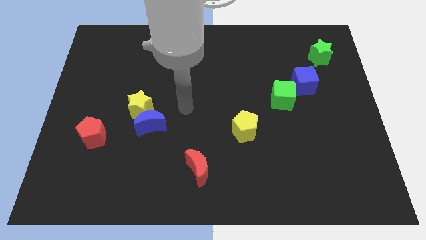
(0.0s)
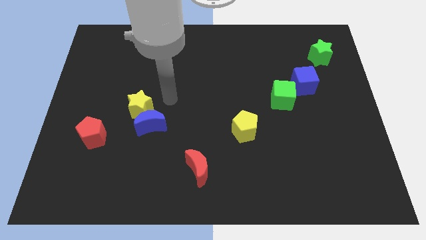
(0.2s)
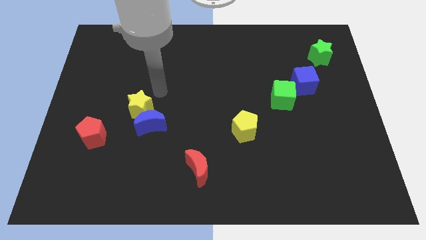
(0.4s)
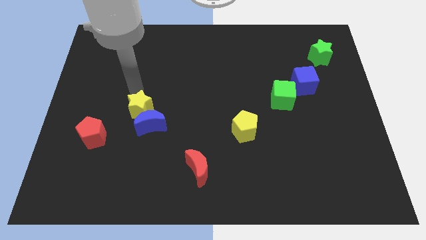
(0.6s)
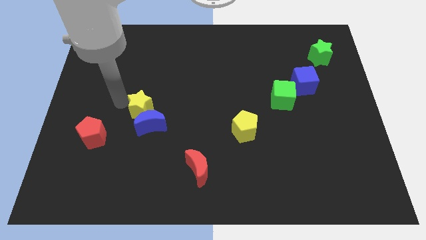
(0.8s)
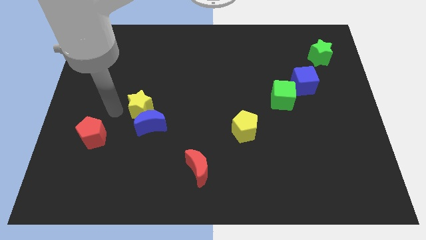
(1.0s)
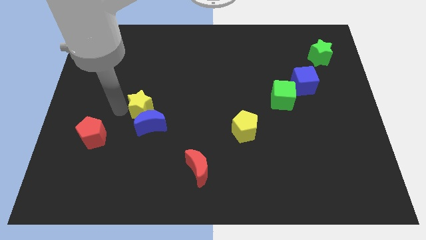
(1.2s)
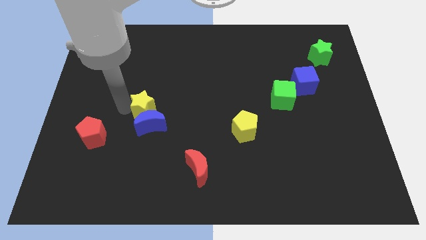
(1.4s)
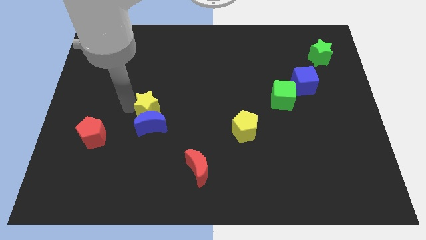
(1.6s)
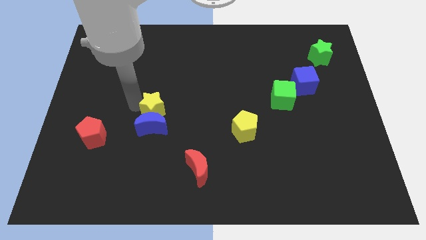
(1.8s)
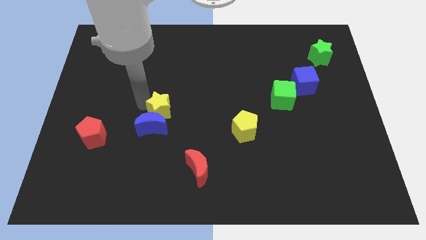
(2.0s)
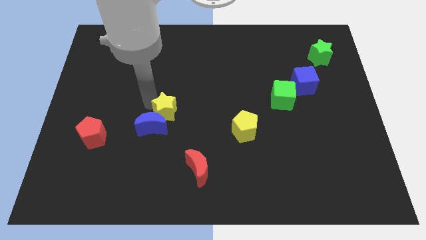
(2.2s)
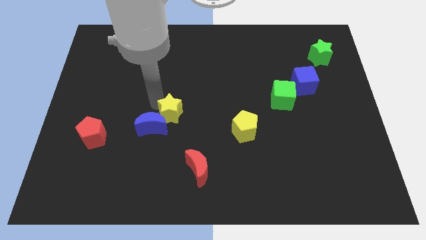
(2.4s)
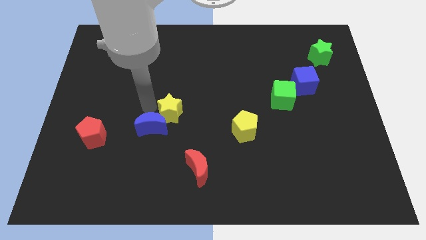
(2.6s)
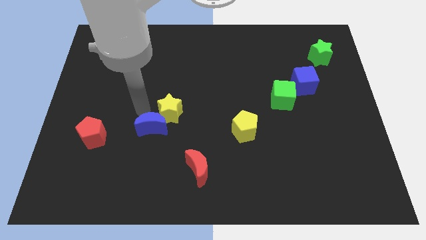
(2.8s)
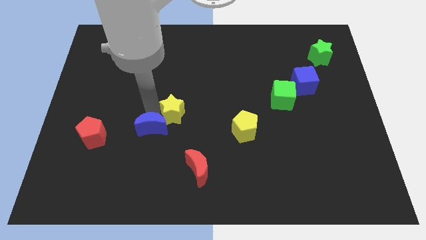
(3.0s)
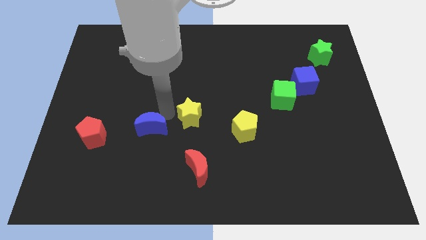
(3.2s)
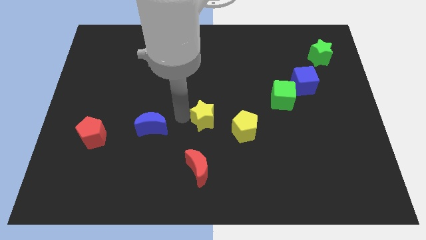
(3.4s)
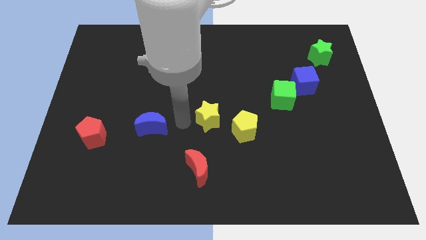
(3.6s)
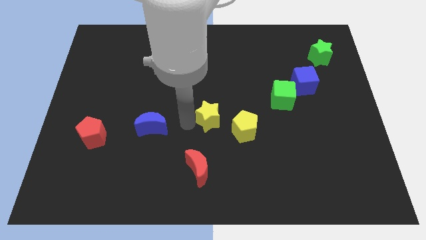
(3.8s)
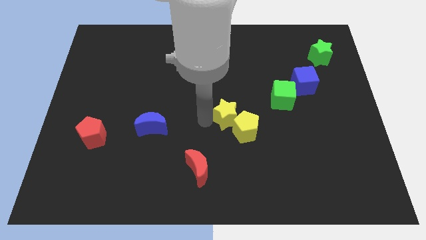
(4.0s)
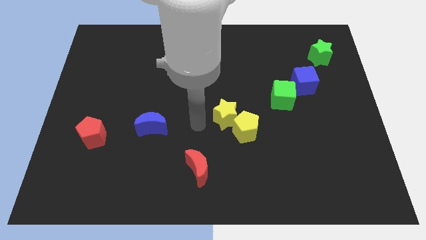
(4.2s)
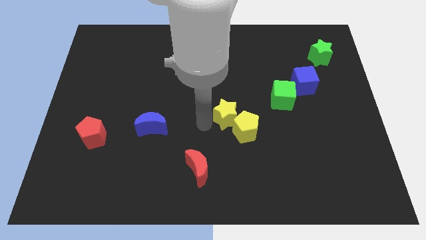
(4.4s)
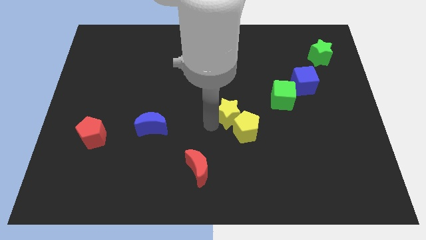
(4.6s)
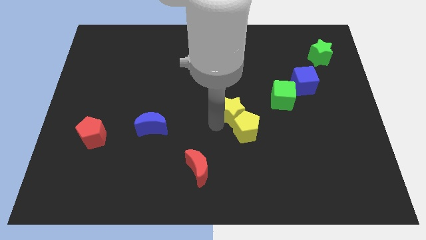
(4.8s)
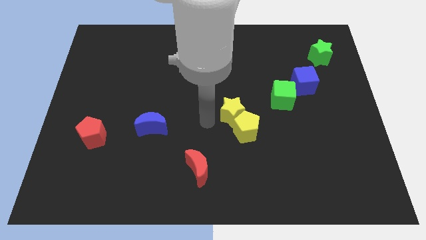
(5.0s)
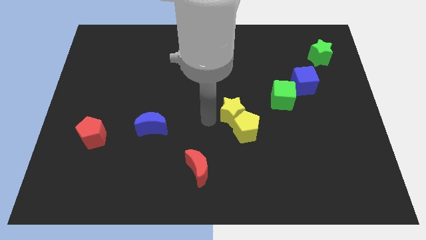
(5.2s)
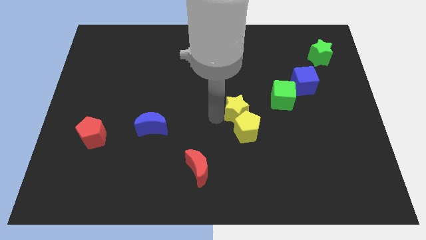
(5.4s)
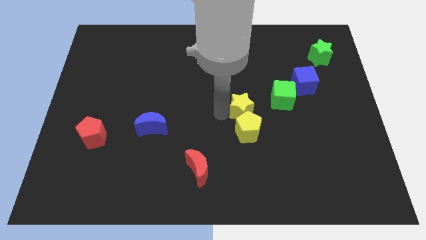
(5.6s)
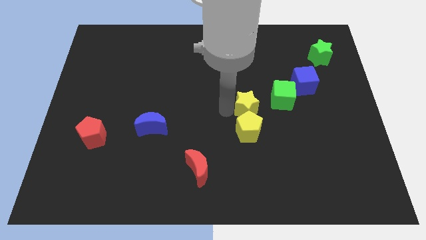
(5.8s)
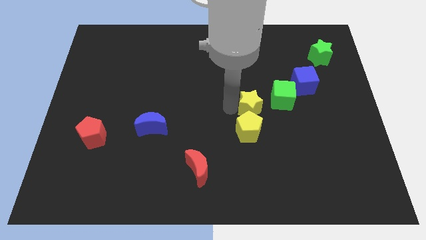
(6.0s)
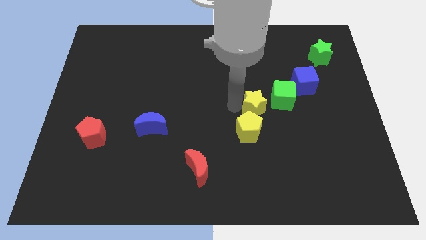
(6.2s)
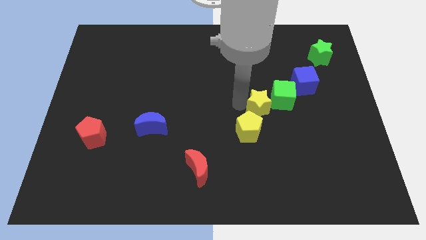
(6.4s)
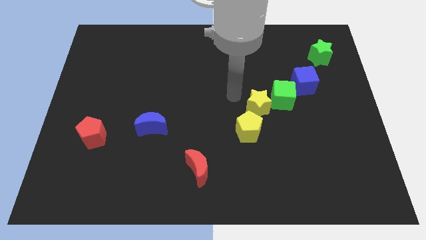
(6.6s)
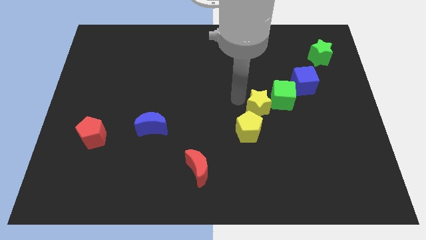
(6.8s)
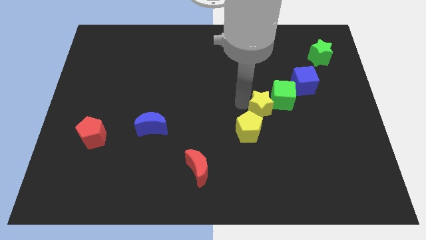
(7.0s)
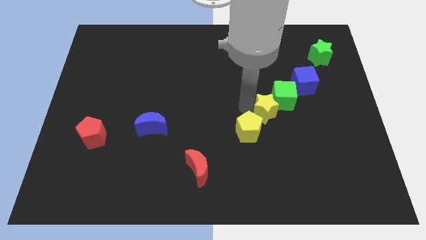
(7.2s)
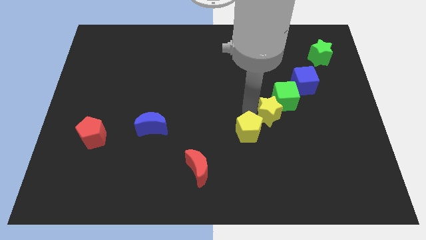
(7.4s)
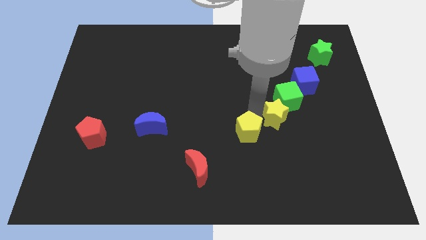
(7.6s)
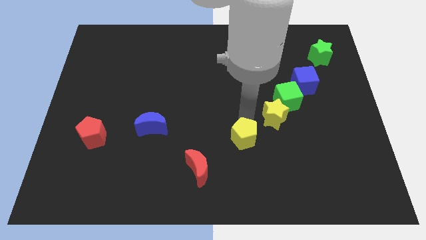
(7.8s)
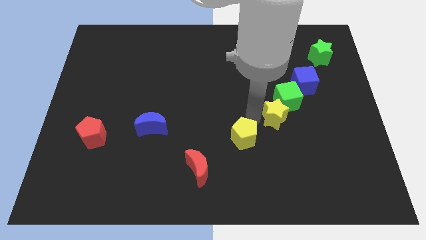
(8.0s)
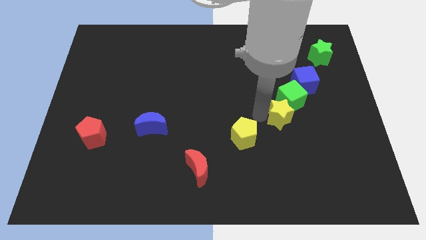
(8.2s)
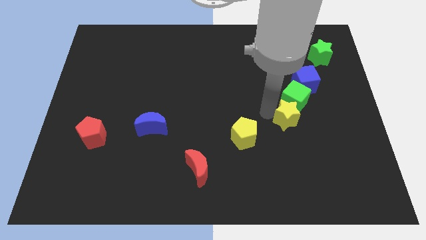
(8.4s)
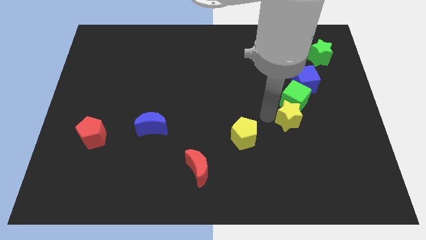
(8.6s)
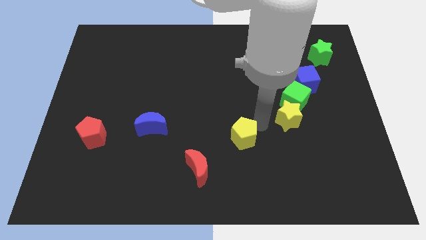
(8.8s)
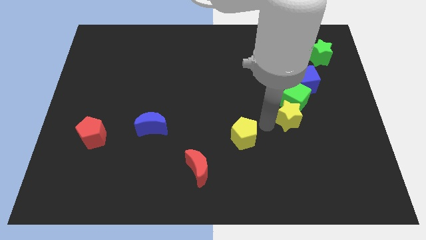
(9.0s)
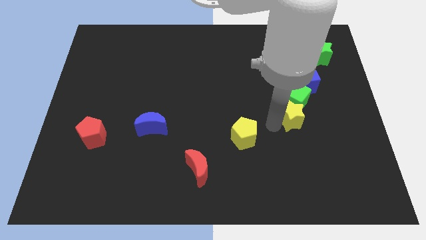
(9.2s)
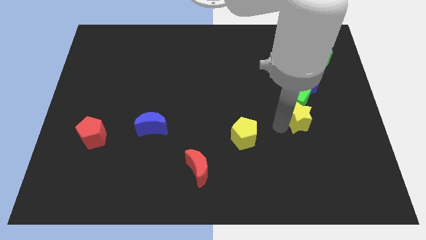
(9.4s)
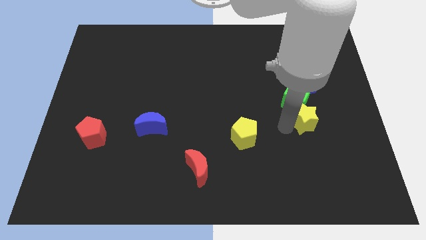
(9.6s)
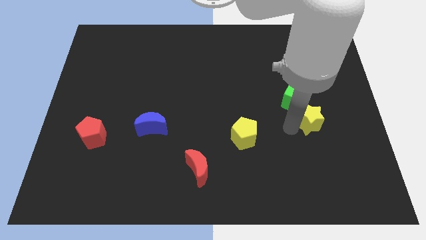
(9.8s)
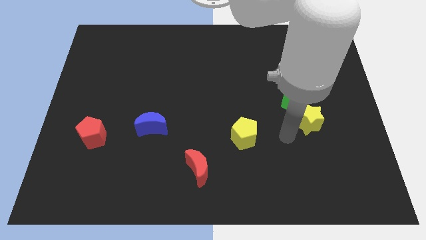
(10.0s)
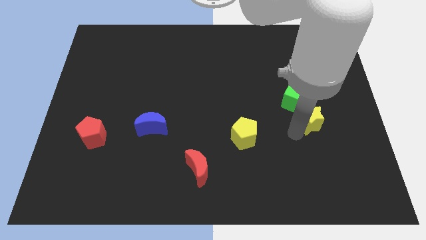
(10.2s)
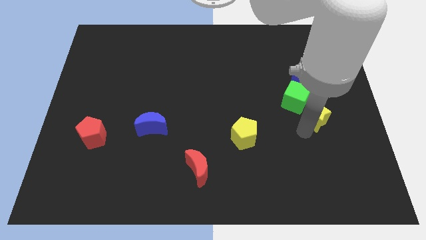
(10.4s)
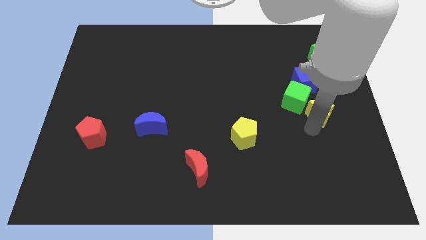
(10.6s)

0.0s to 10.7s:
put the yellow star just right of the green cube

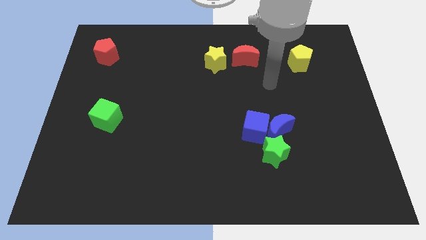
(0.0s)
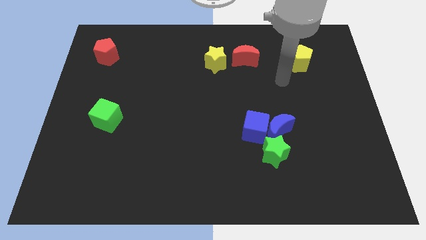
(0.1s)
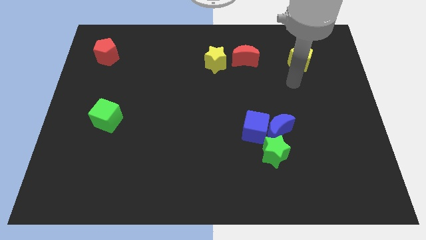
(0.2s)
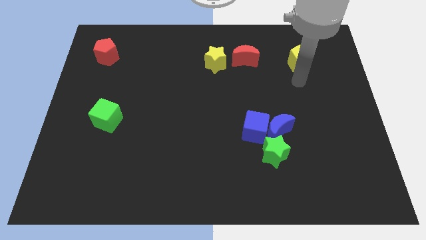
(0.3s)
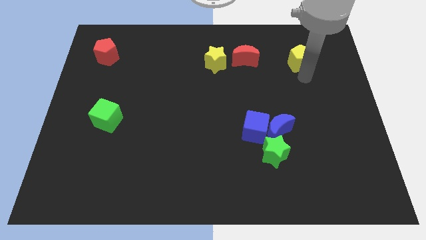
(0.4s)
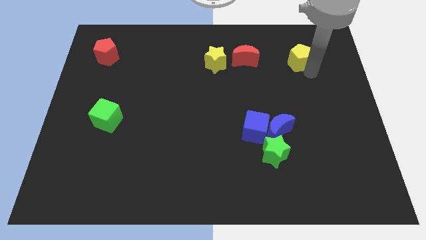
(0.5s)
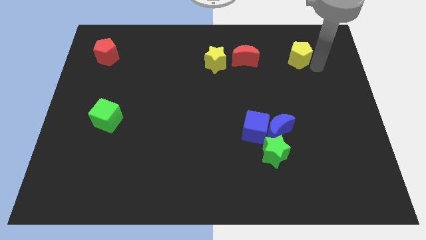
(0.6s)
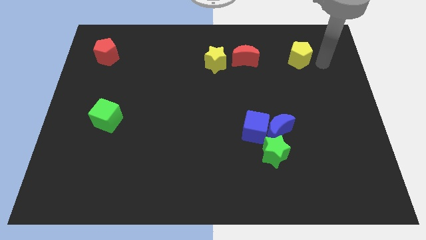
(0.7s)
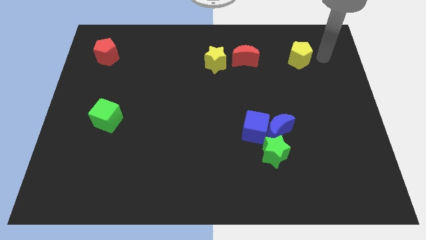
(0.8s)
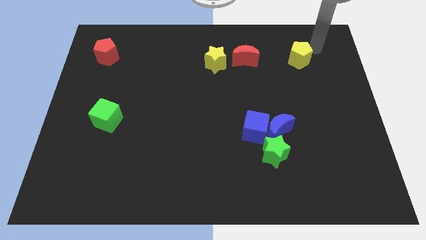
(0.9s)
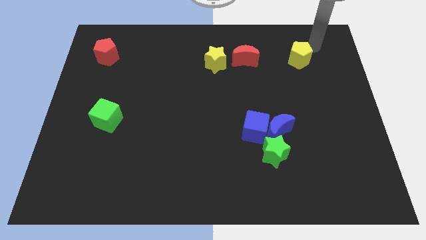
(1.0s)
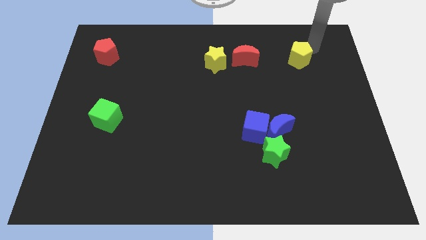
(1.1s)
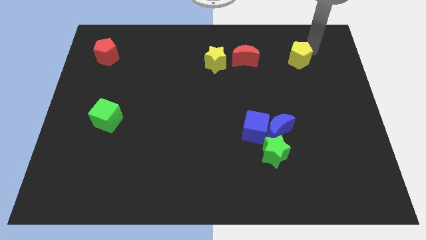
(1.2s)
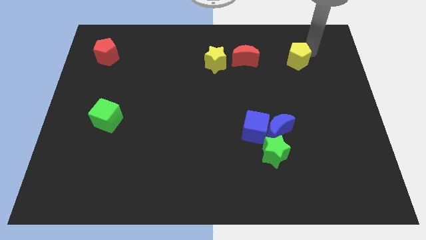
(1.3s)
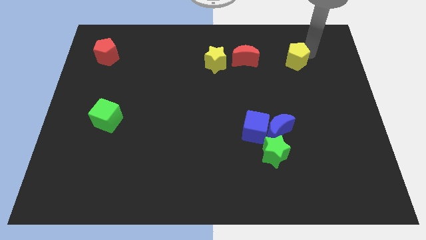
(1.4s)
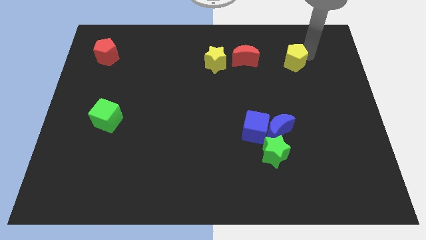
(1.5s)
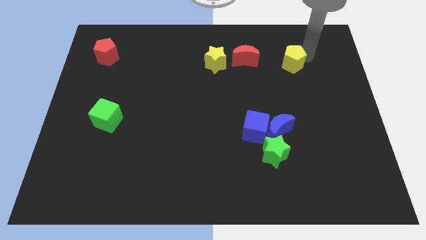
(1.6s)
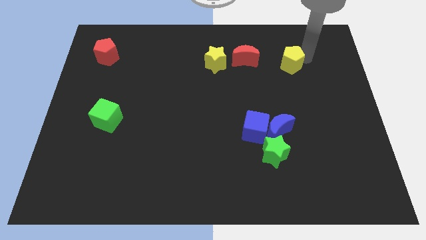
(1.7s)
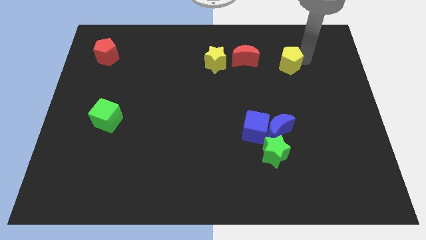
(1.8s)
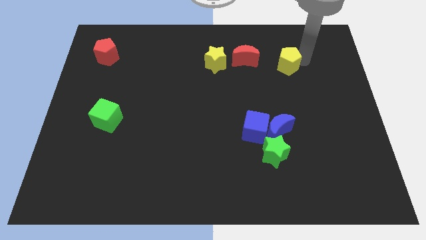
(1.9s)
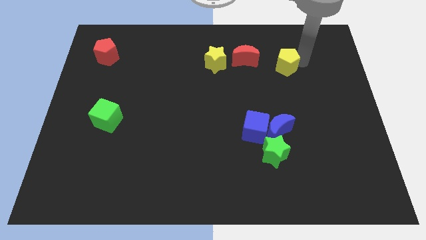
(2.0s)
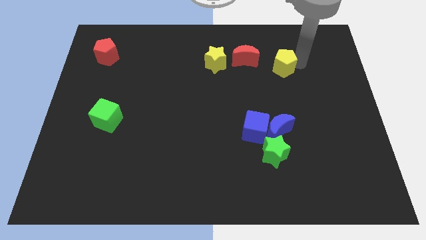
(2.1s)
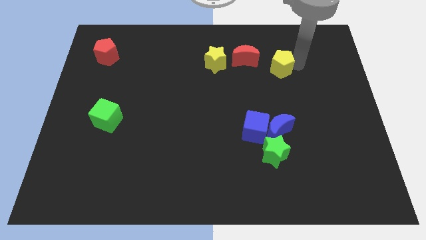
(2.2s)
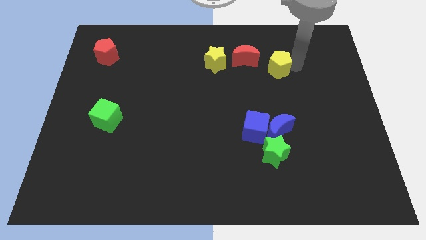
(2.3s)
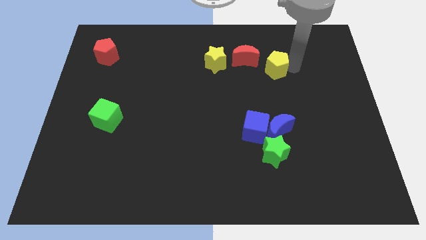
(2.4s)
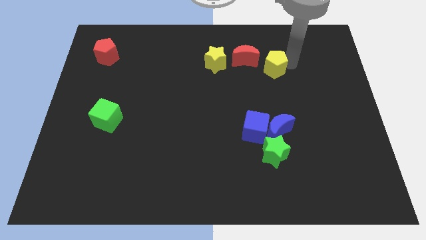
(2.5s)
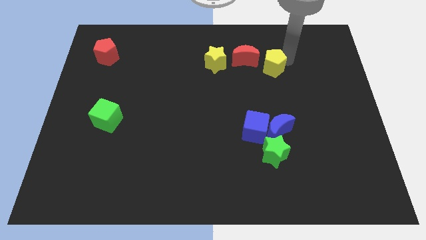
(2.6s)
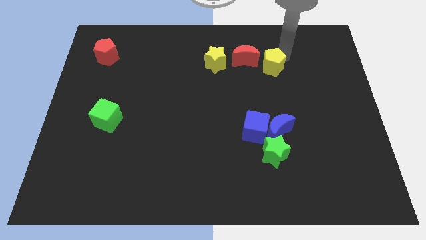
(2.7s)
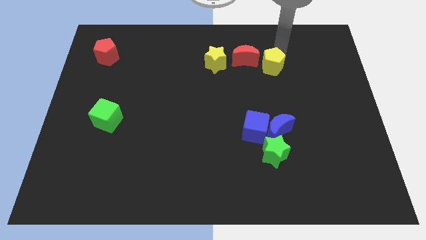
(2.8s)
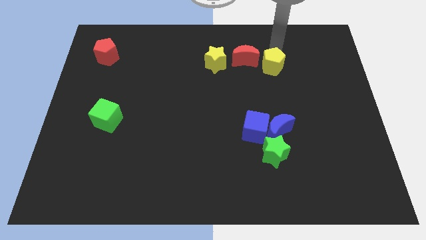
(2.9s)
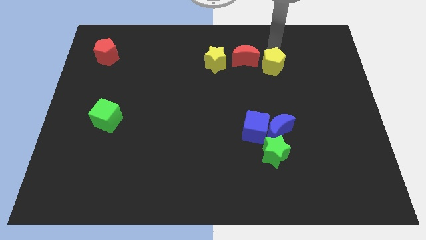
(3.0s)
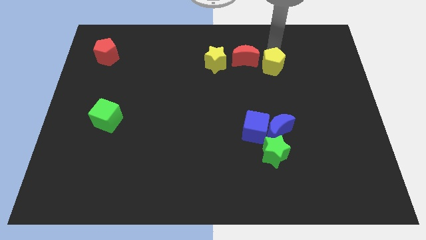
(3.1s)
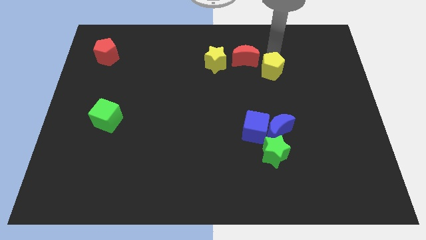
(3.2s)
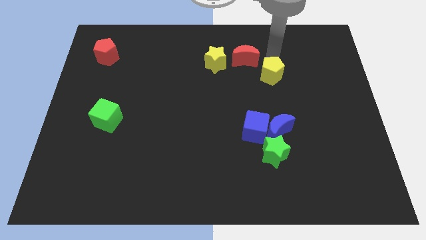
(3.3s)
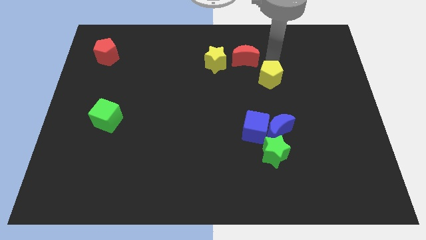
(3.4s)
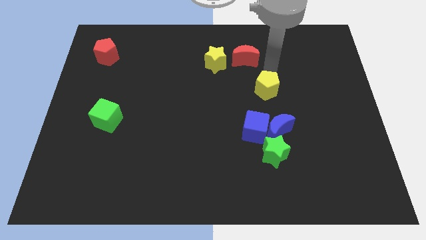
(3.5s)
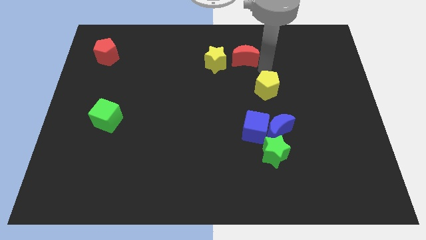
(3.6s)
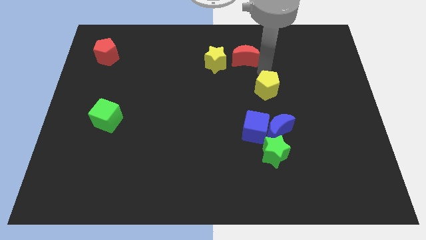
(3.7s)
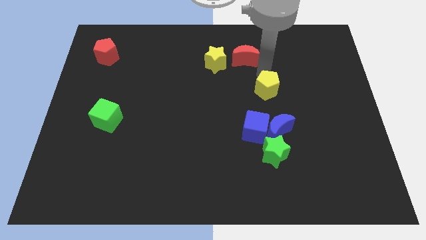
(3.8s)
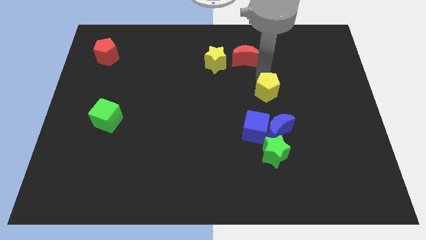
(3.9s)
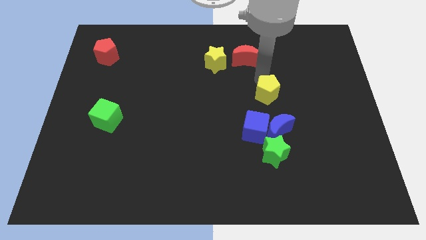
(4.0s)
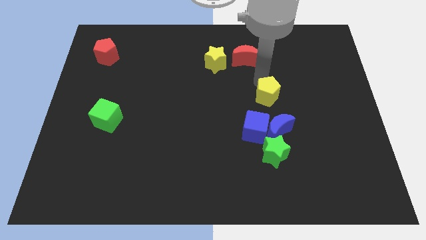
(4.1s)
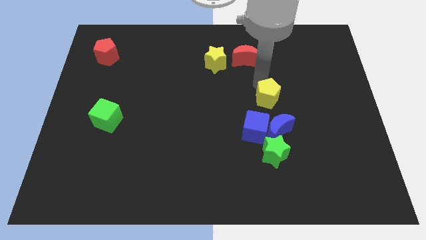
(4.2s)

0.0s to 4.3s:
slide the yellow pentagon to the top side of the green star
